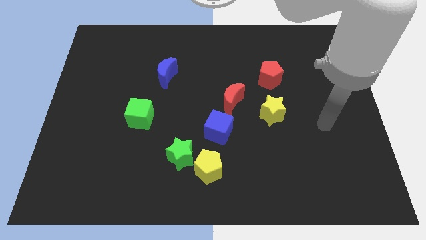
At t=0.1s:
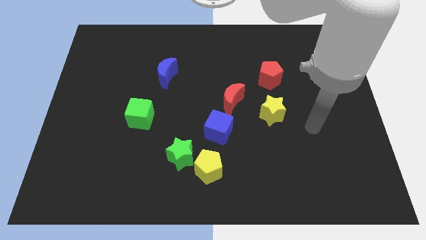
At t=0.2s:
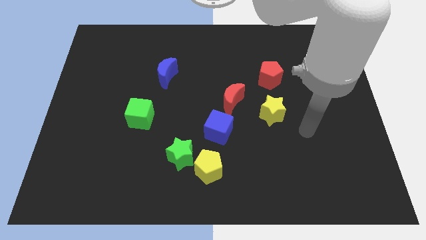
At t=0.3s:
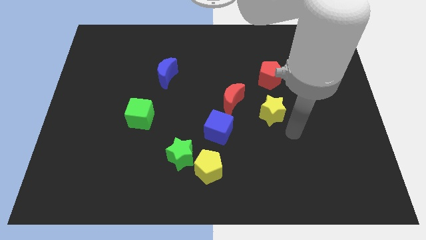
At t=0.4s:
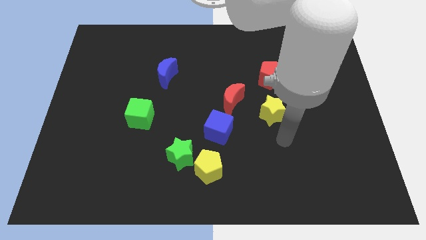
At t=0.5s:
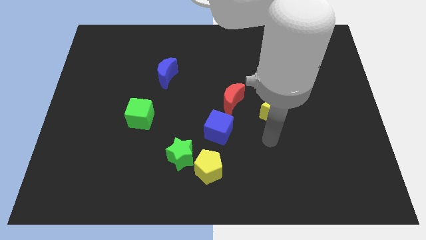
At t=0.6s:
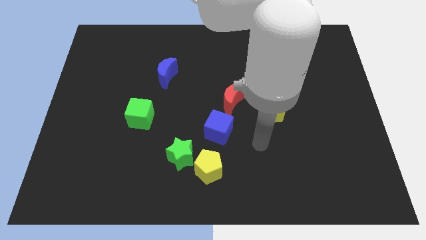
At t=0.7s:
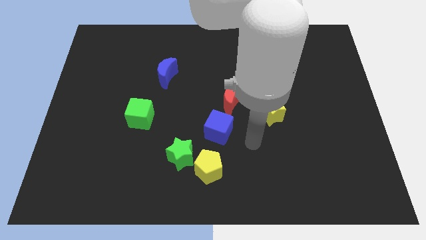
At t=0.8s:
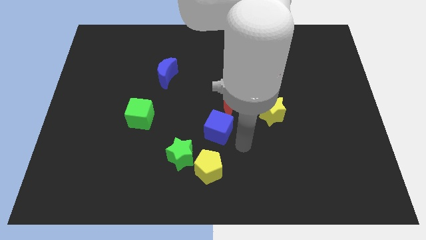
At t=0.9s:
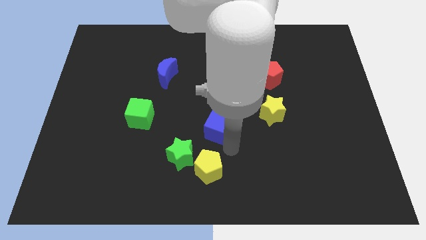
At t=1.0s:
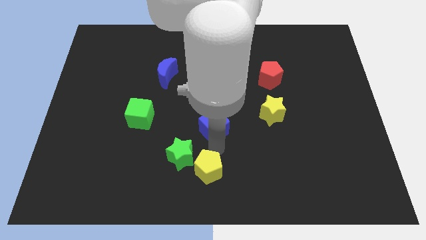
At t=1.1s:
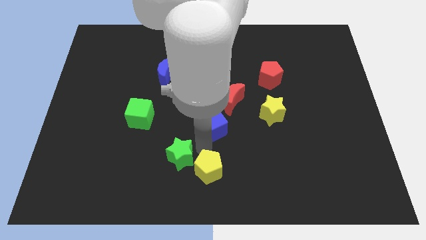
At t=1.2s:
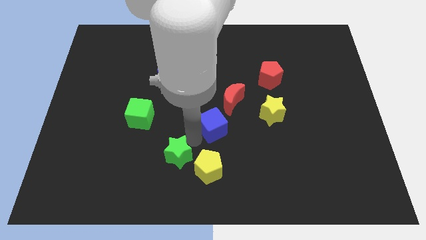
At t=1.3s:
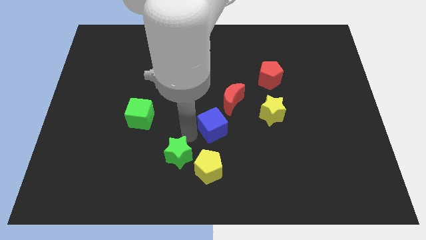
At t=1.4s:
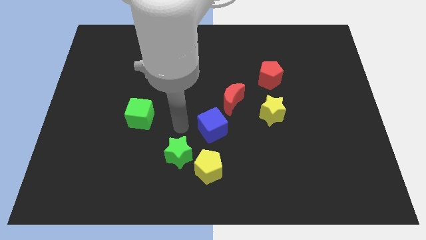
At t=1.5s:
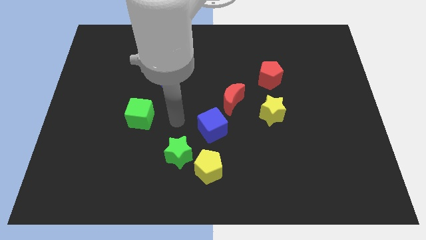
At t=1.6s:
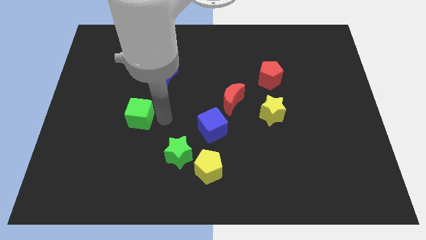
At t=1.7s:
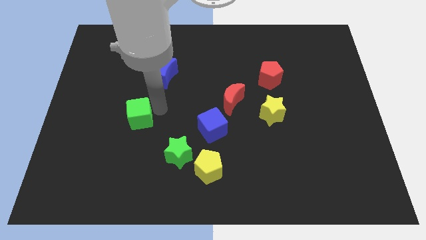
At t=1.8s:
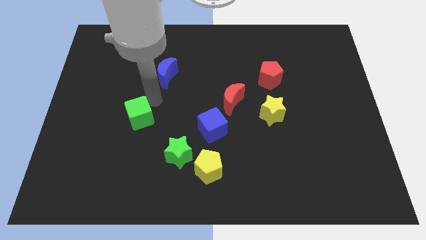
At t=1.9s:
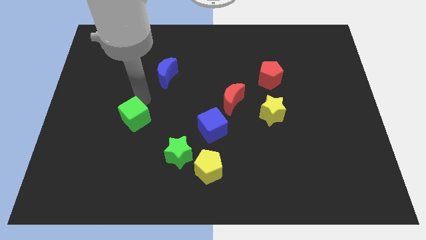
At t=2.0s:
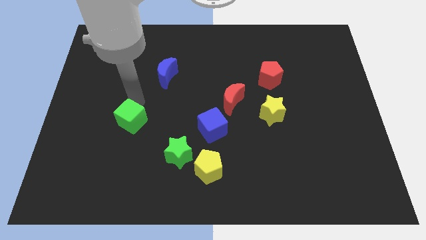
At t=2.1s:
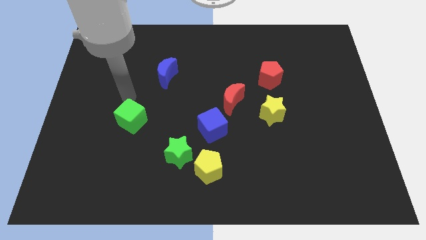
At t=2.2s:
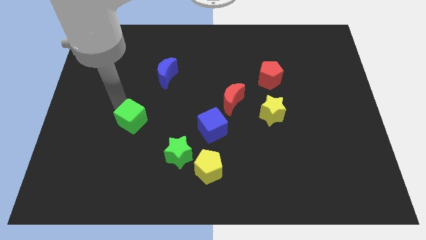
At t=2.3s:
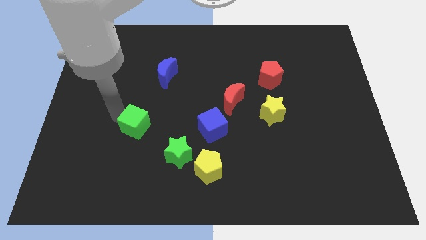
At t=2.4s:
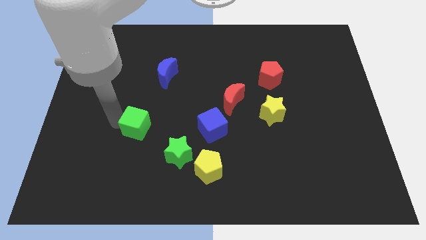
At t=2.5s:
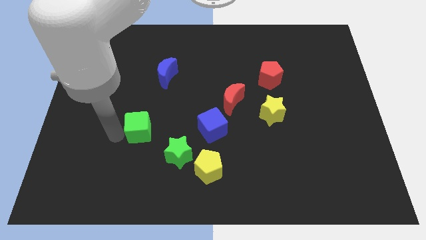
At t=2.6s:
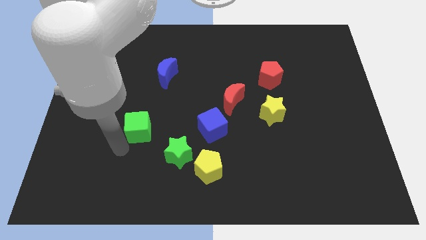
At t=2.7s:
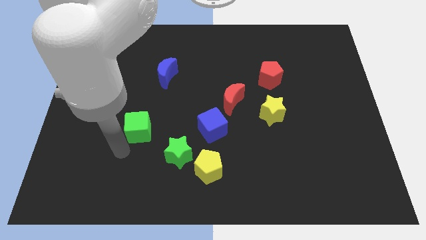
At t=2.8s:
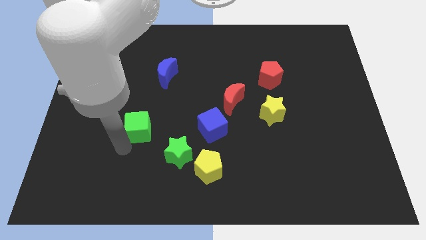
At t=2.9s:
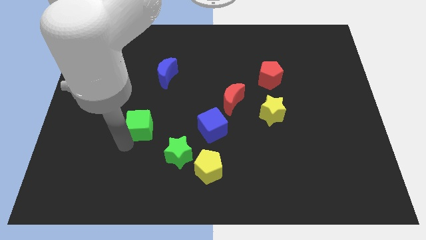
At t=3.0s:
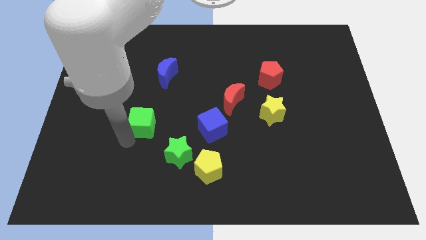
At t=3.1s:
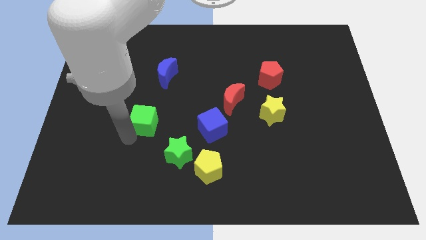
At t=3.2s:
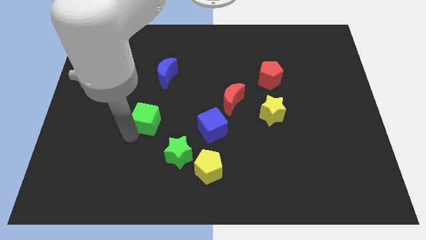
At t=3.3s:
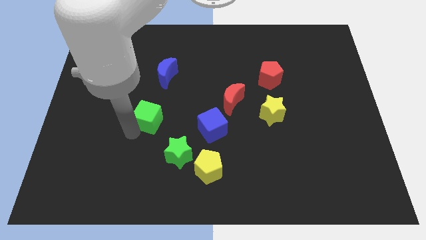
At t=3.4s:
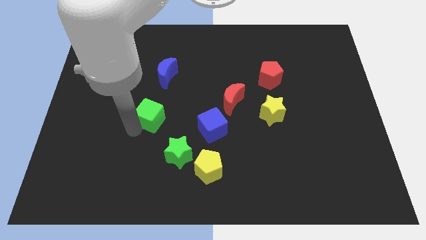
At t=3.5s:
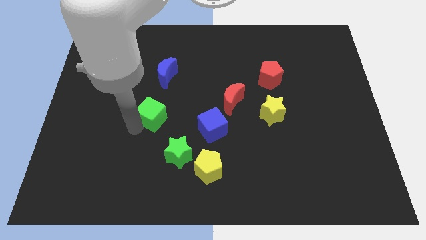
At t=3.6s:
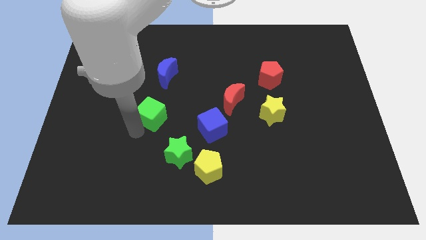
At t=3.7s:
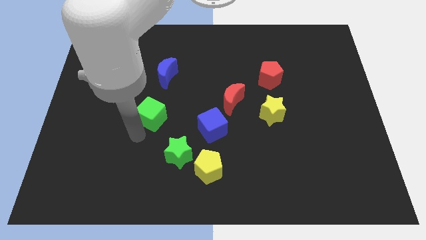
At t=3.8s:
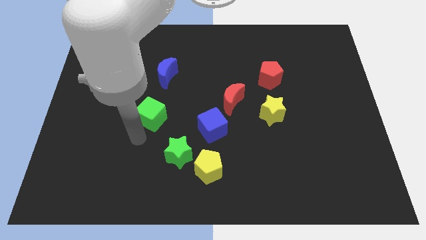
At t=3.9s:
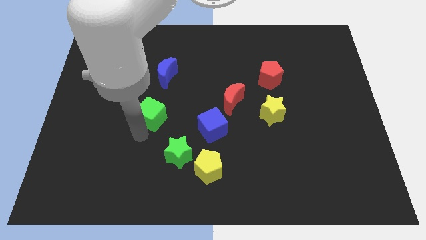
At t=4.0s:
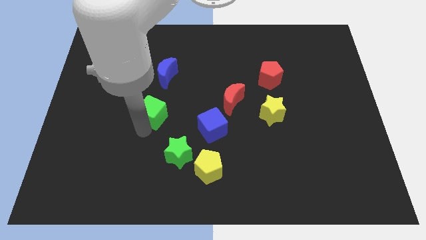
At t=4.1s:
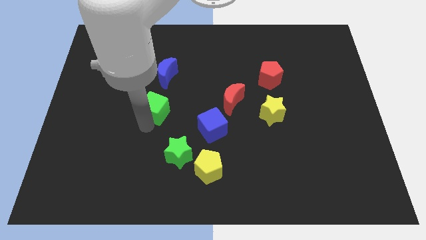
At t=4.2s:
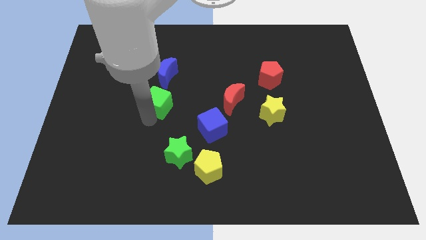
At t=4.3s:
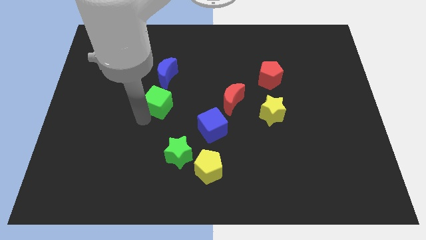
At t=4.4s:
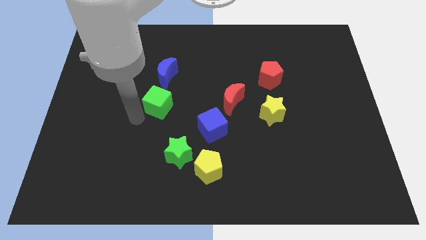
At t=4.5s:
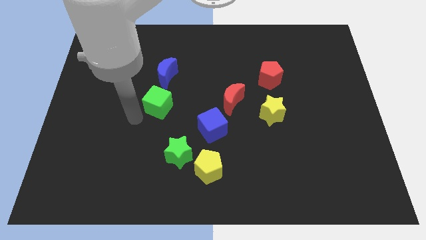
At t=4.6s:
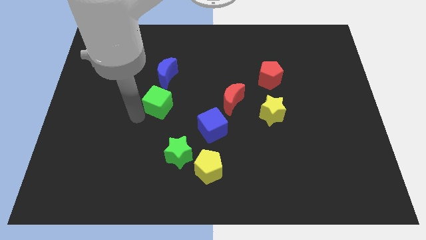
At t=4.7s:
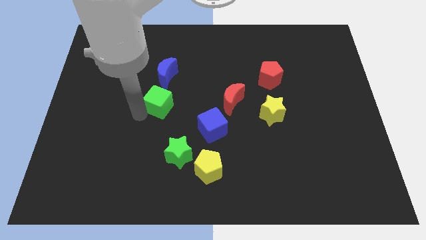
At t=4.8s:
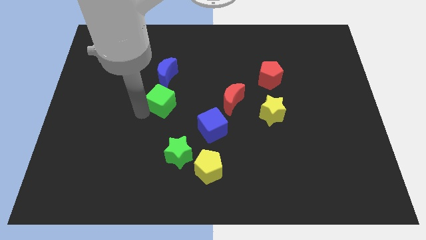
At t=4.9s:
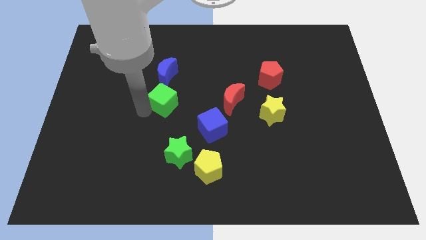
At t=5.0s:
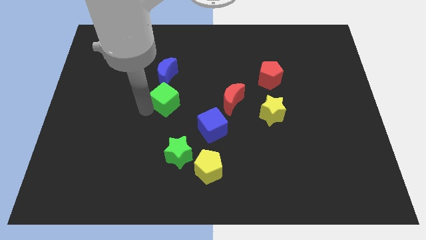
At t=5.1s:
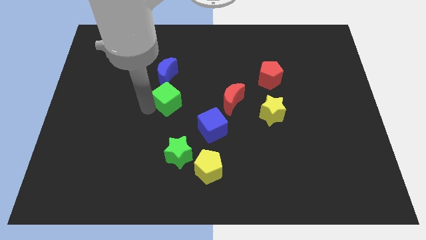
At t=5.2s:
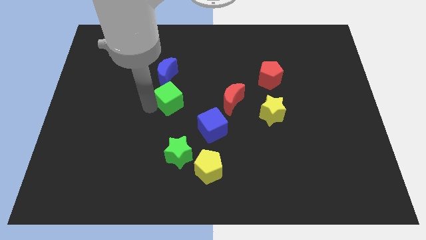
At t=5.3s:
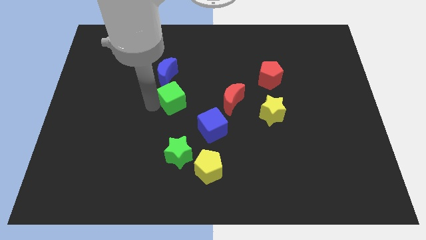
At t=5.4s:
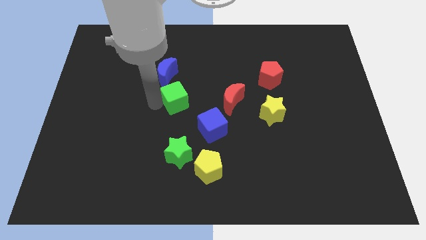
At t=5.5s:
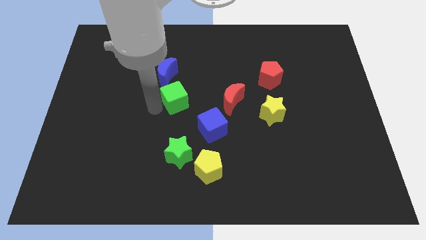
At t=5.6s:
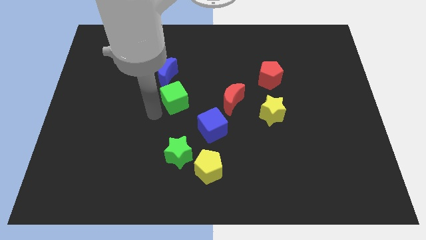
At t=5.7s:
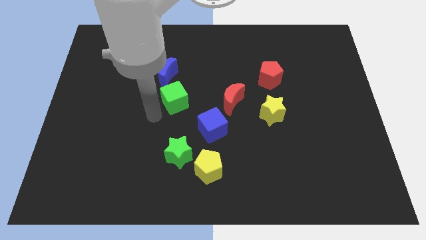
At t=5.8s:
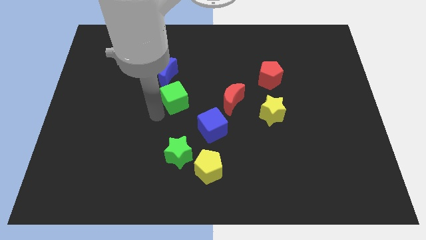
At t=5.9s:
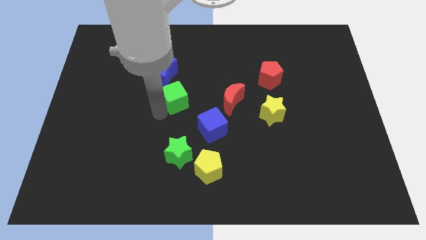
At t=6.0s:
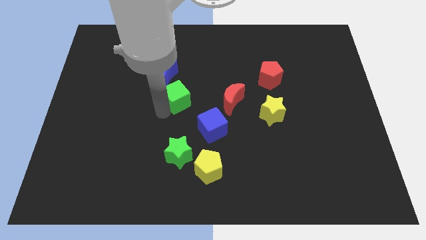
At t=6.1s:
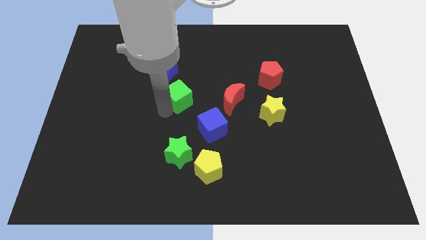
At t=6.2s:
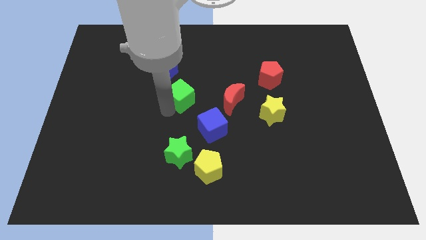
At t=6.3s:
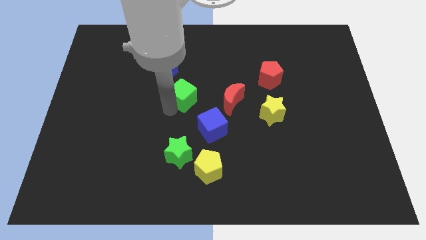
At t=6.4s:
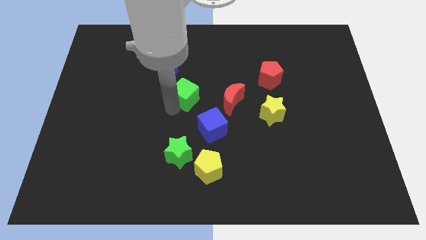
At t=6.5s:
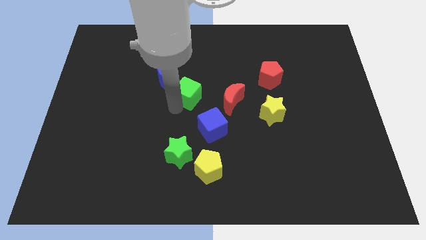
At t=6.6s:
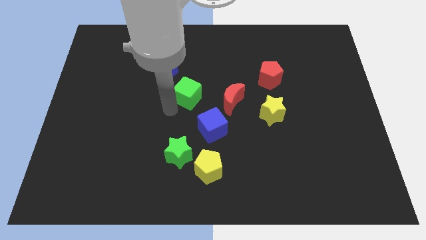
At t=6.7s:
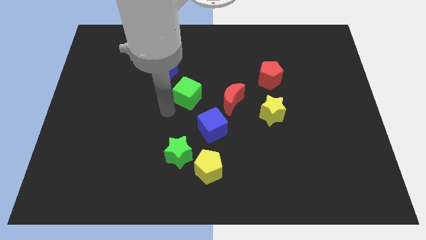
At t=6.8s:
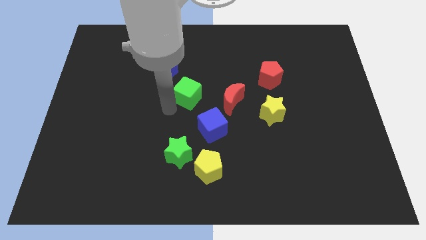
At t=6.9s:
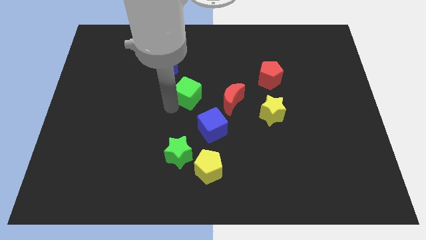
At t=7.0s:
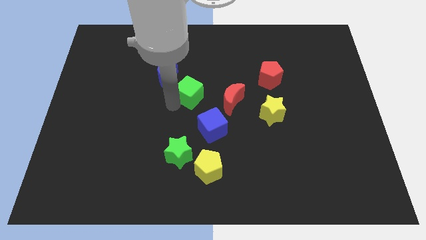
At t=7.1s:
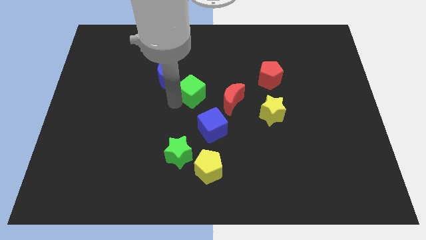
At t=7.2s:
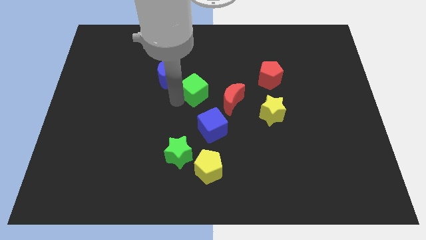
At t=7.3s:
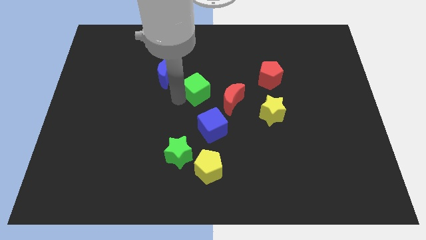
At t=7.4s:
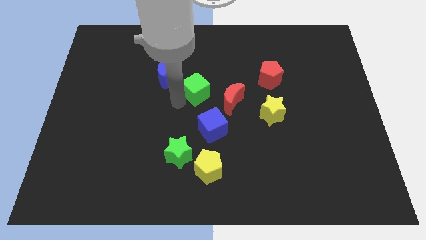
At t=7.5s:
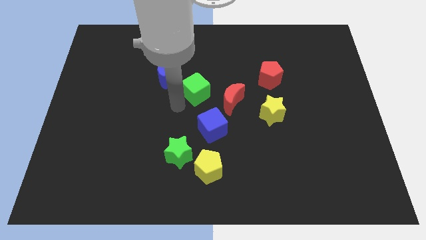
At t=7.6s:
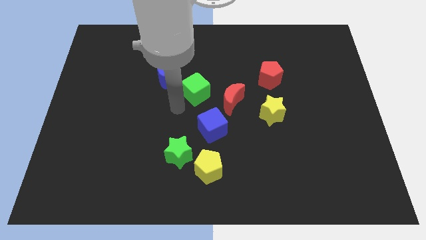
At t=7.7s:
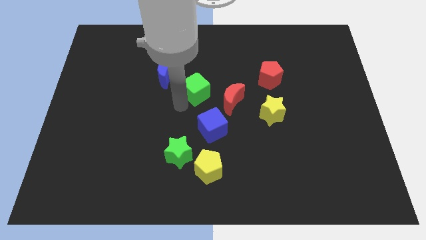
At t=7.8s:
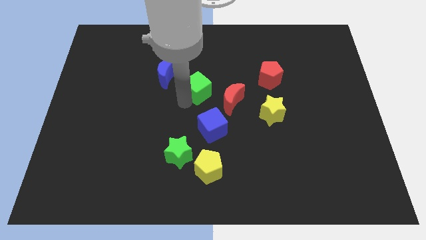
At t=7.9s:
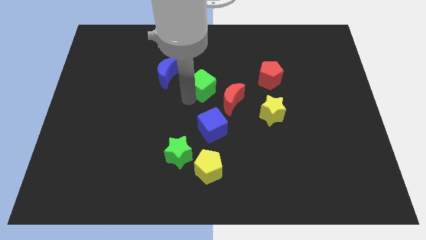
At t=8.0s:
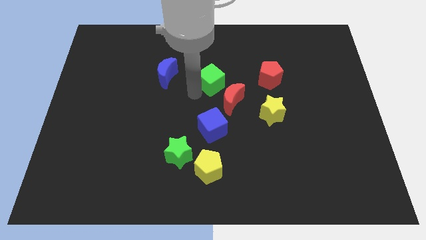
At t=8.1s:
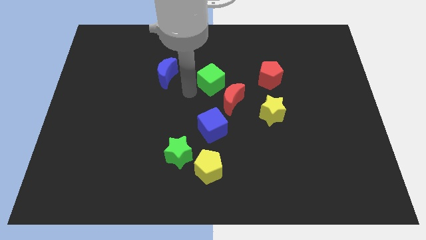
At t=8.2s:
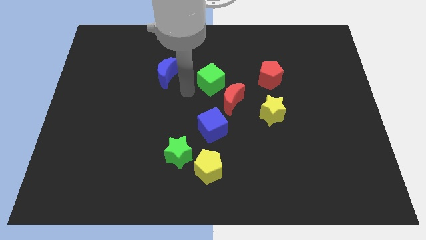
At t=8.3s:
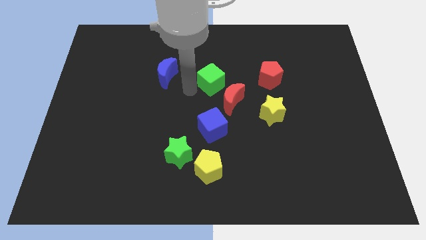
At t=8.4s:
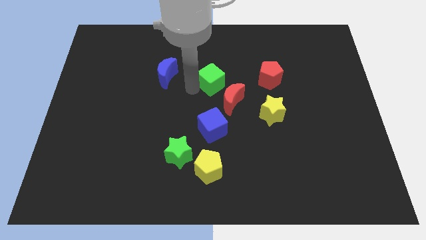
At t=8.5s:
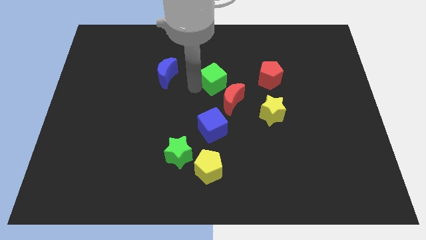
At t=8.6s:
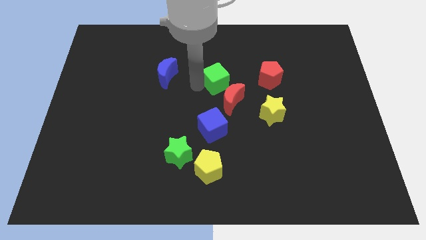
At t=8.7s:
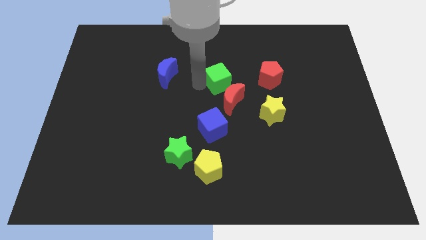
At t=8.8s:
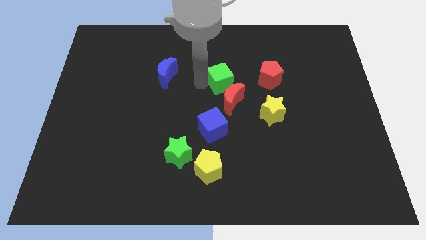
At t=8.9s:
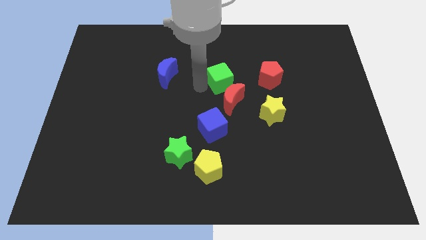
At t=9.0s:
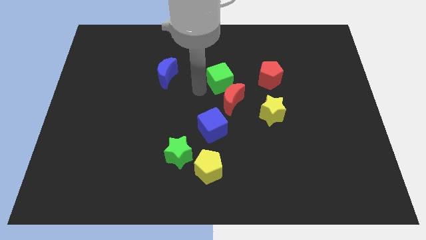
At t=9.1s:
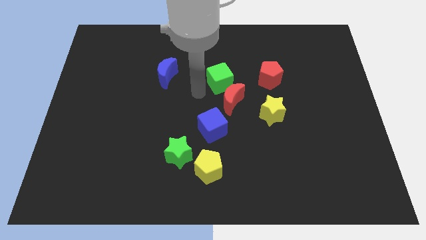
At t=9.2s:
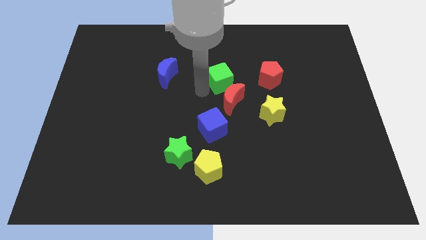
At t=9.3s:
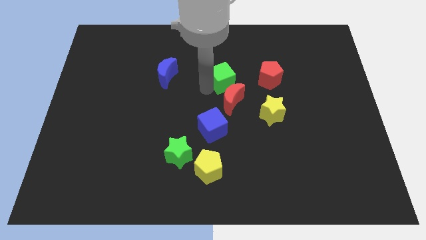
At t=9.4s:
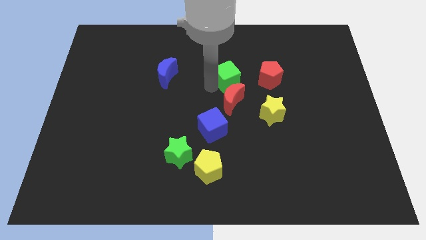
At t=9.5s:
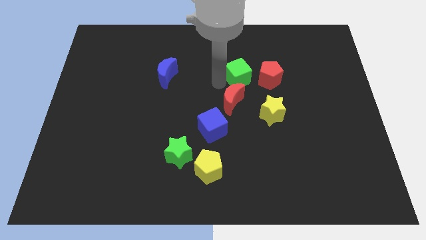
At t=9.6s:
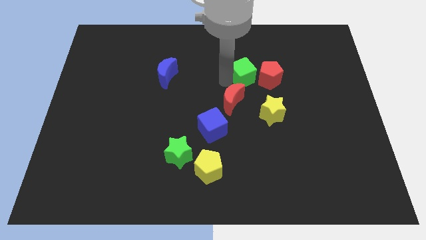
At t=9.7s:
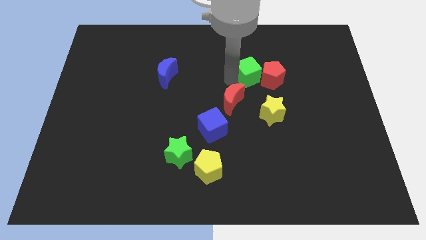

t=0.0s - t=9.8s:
slide the green cube to the top of the yellow star
